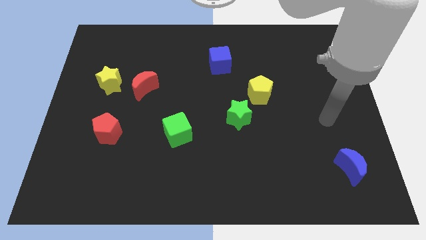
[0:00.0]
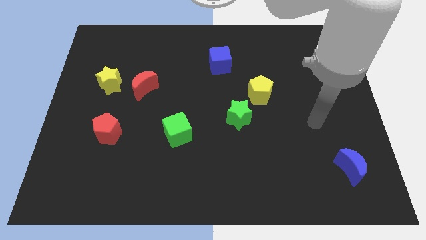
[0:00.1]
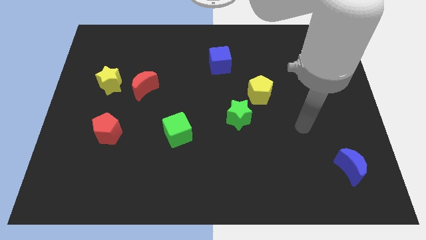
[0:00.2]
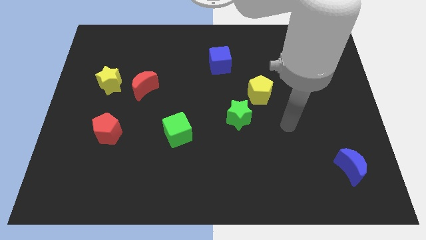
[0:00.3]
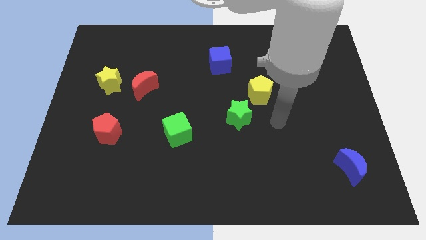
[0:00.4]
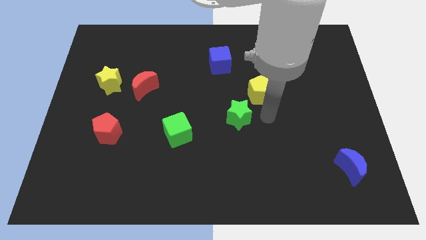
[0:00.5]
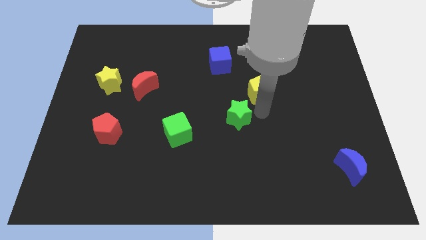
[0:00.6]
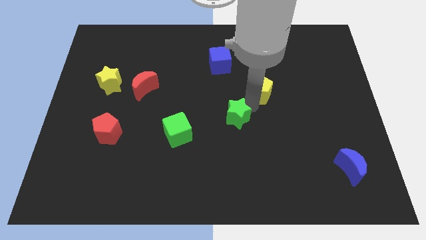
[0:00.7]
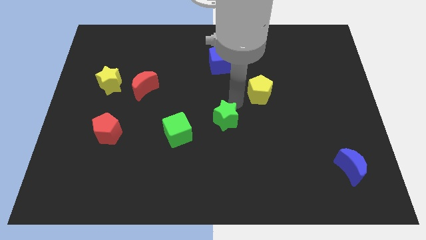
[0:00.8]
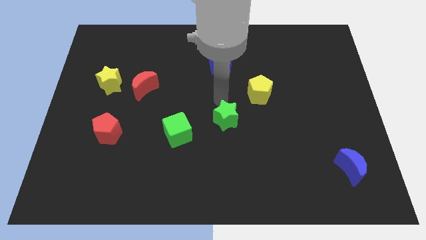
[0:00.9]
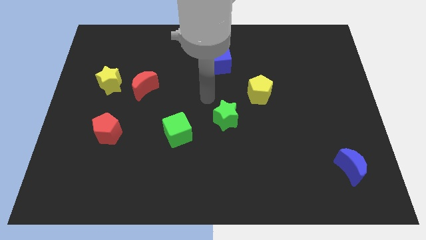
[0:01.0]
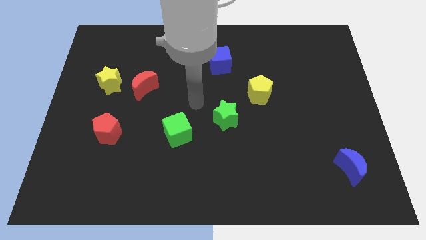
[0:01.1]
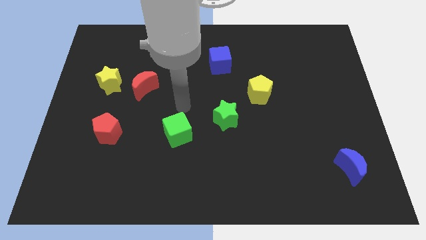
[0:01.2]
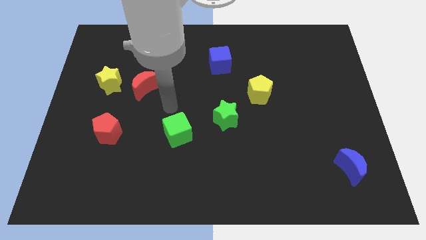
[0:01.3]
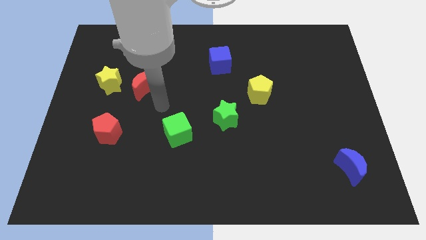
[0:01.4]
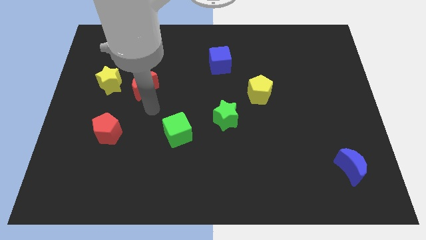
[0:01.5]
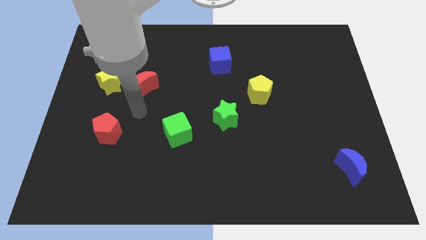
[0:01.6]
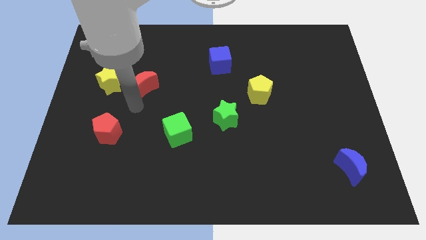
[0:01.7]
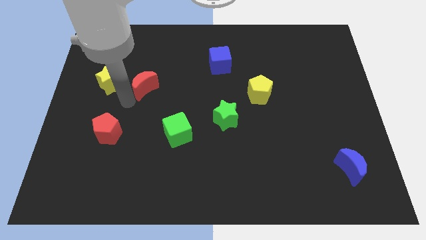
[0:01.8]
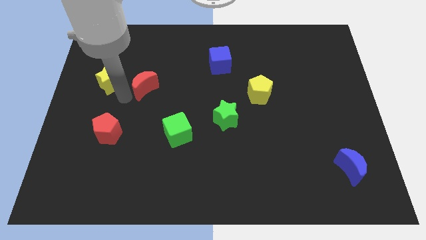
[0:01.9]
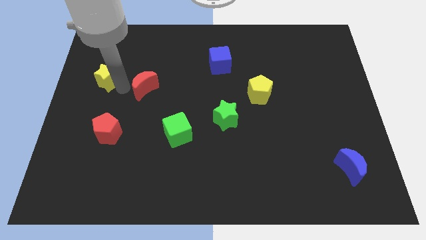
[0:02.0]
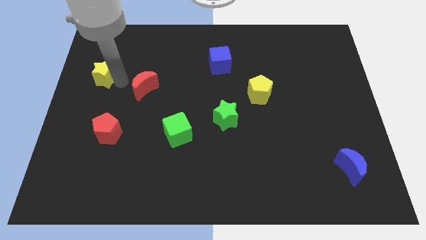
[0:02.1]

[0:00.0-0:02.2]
pull the red moon apart from the yellow star

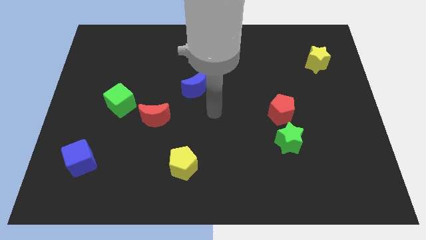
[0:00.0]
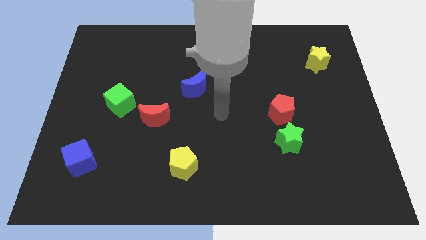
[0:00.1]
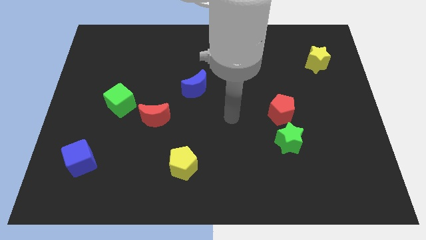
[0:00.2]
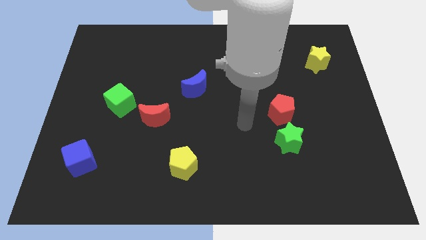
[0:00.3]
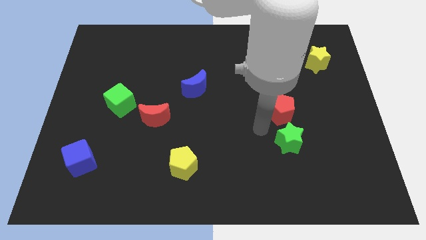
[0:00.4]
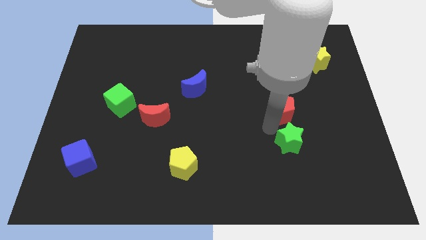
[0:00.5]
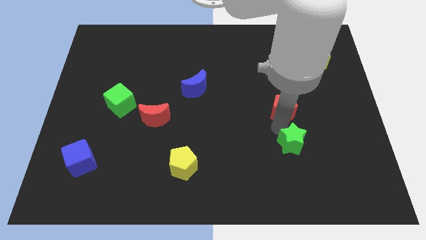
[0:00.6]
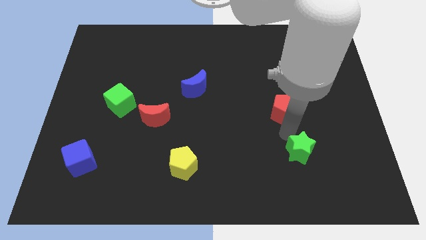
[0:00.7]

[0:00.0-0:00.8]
pull the red pentagon apart from the green star

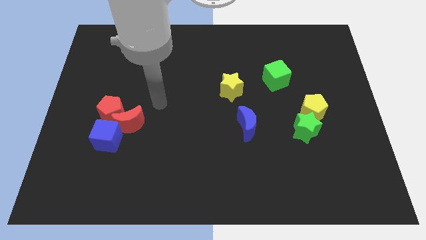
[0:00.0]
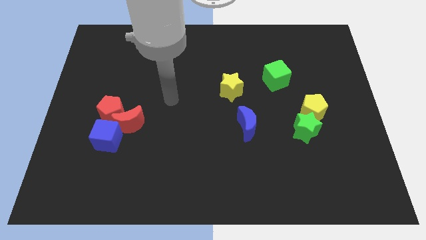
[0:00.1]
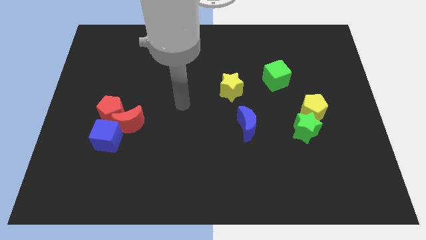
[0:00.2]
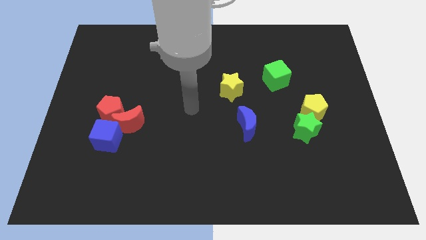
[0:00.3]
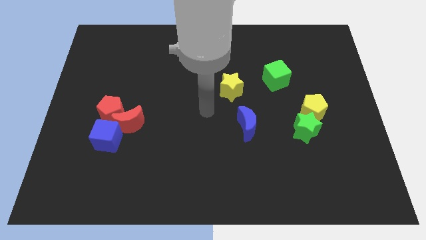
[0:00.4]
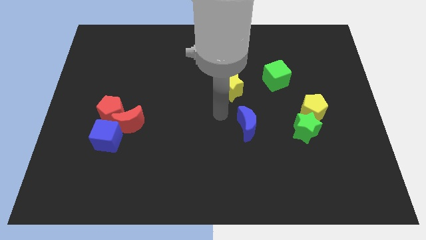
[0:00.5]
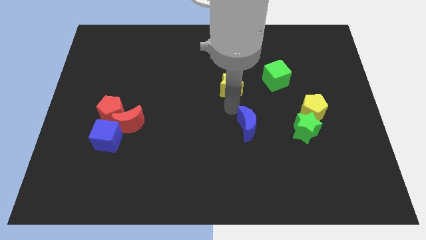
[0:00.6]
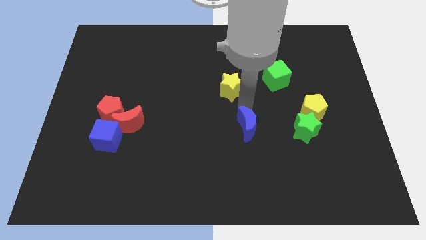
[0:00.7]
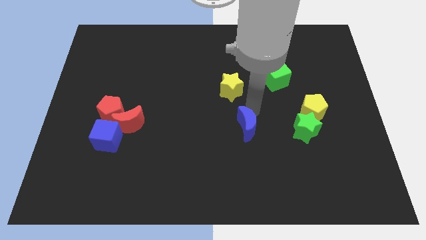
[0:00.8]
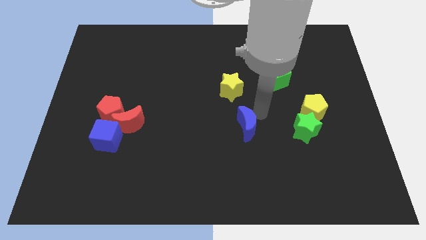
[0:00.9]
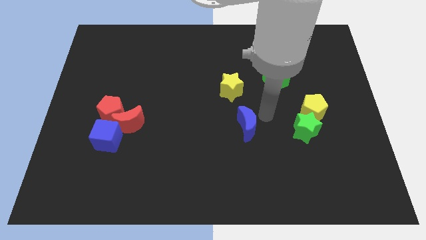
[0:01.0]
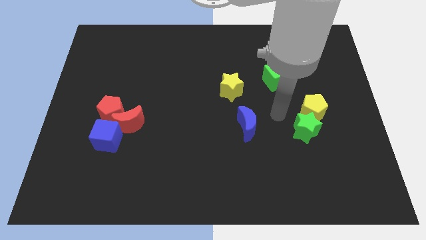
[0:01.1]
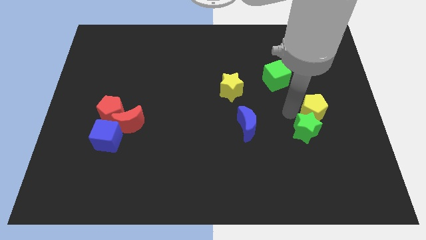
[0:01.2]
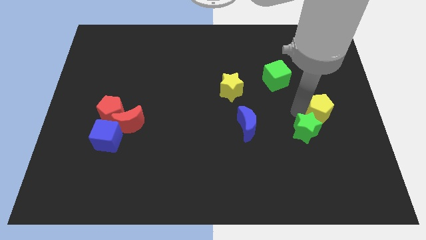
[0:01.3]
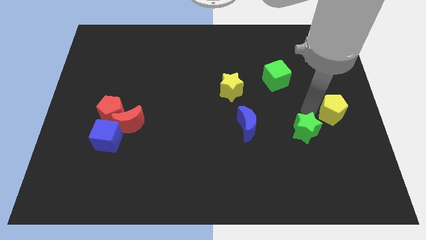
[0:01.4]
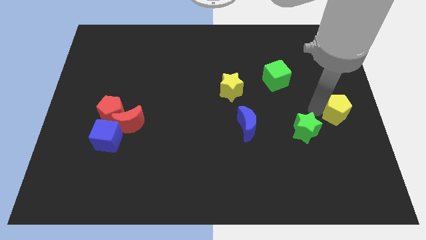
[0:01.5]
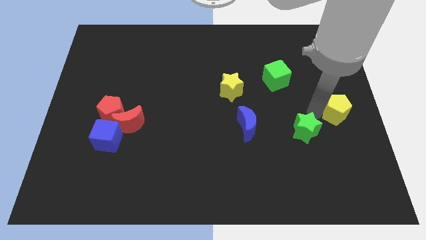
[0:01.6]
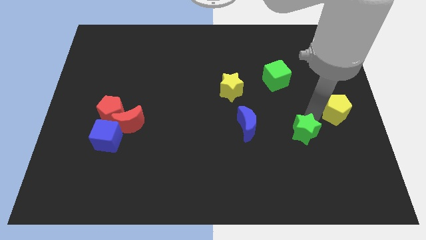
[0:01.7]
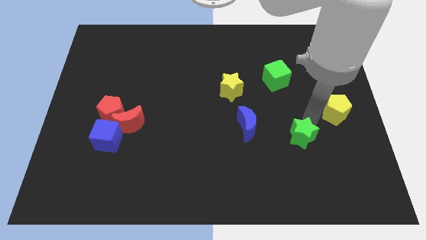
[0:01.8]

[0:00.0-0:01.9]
move the green star away from the yellow pentagon

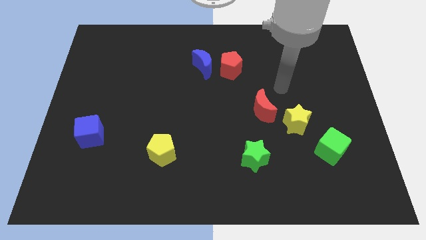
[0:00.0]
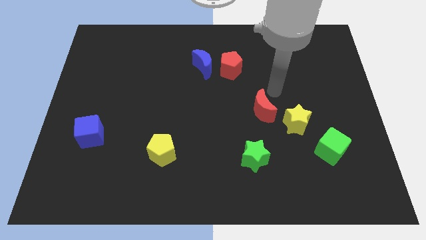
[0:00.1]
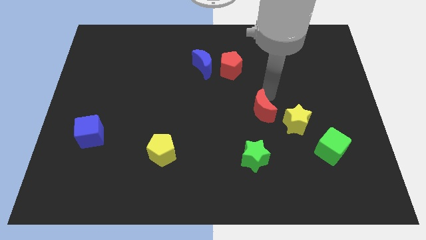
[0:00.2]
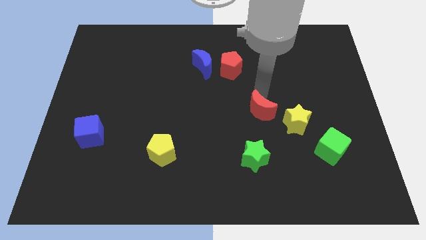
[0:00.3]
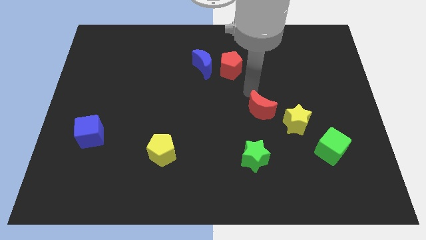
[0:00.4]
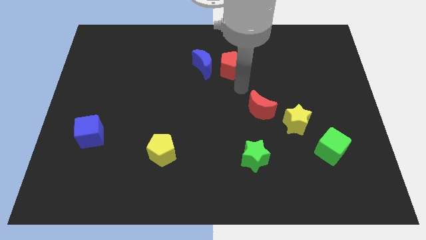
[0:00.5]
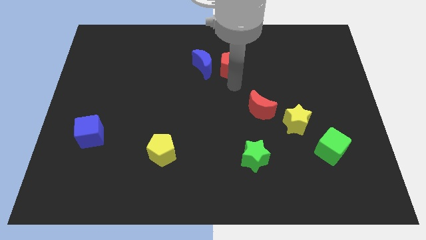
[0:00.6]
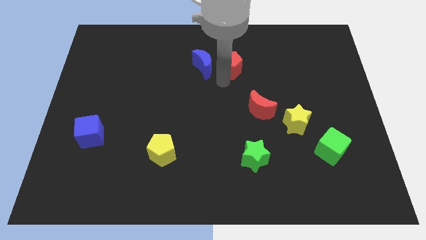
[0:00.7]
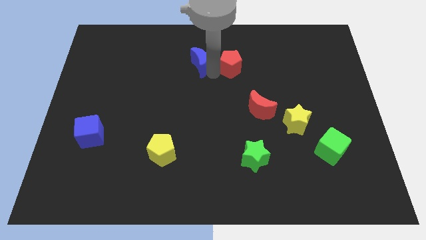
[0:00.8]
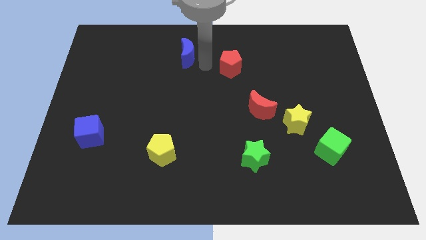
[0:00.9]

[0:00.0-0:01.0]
move the red pentagon away from the blue moon

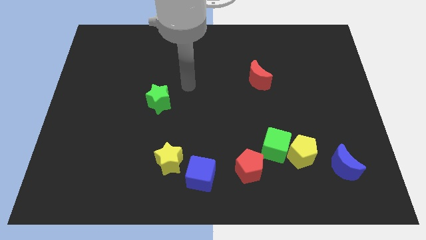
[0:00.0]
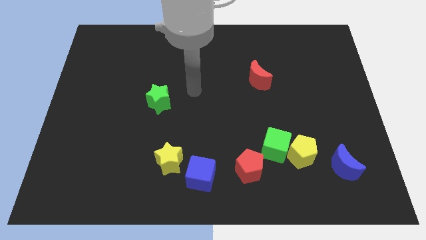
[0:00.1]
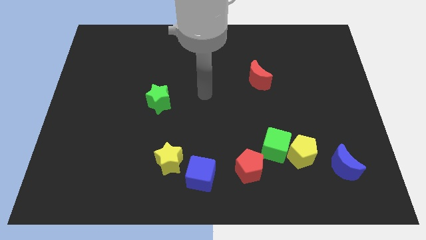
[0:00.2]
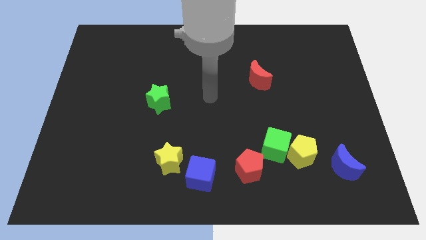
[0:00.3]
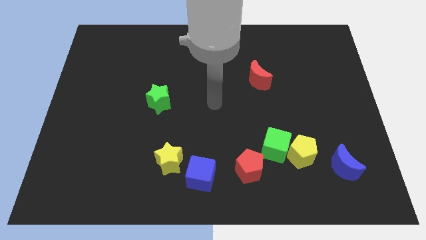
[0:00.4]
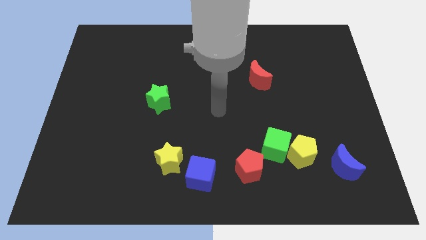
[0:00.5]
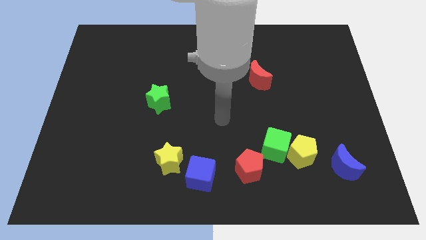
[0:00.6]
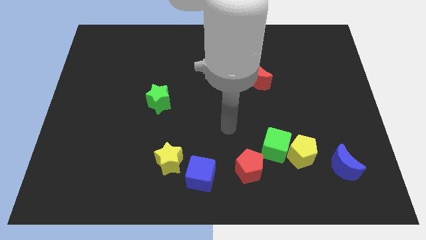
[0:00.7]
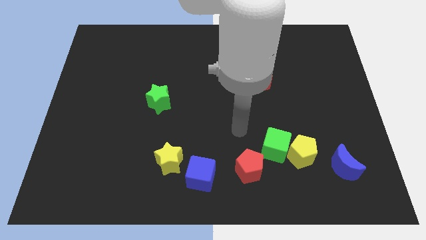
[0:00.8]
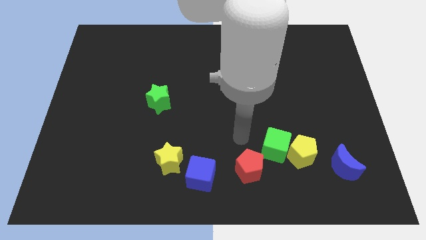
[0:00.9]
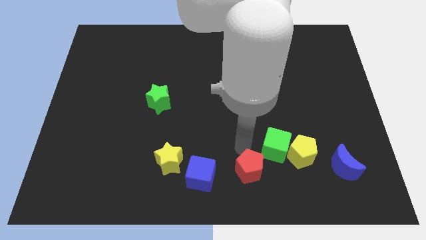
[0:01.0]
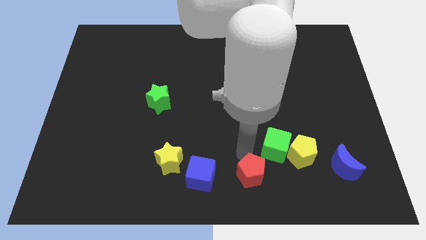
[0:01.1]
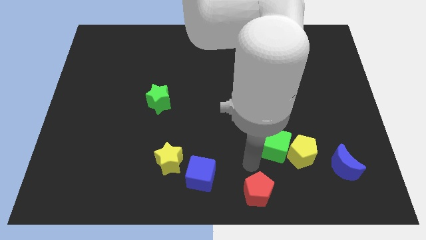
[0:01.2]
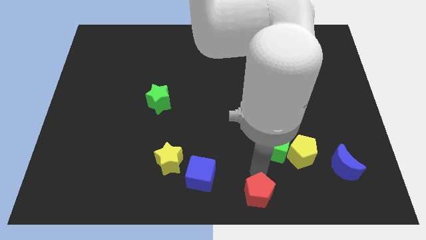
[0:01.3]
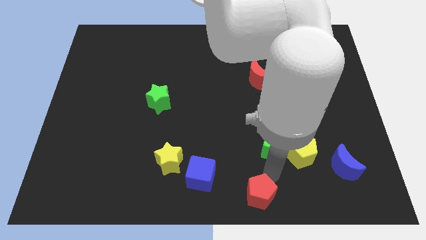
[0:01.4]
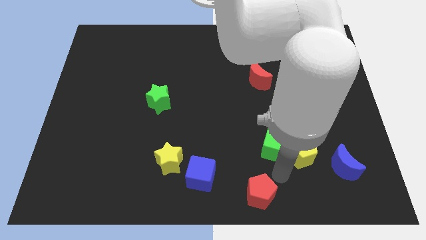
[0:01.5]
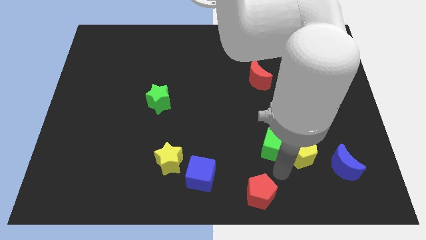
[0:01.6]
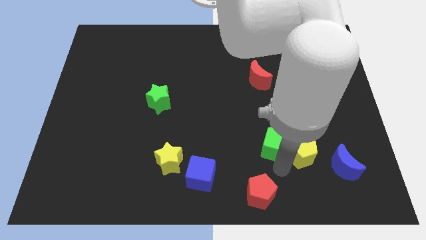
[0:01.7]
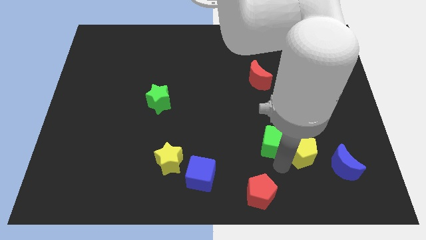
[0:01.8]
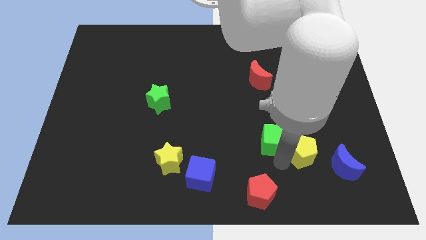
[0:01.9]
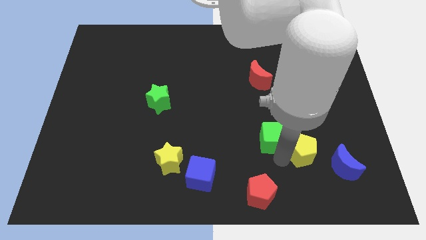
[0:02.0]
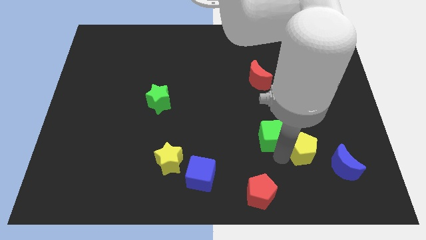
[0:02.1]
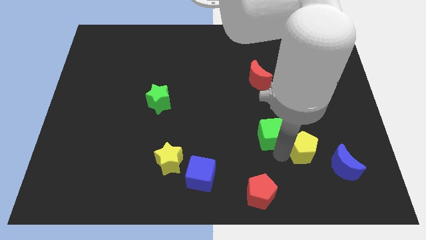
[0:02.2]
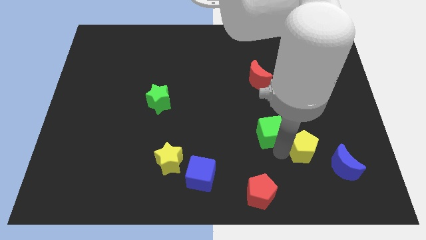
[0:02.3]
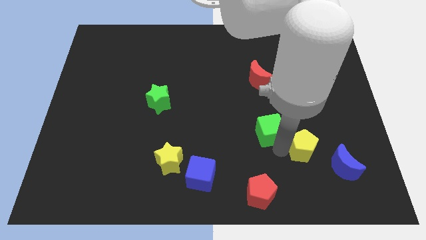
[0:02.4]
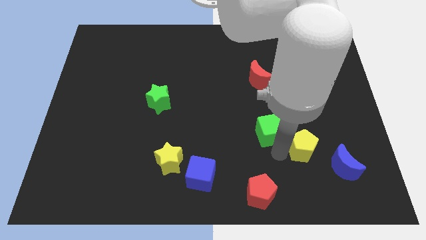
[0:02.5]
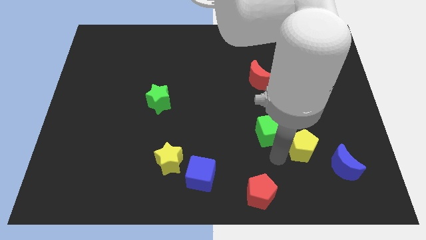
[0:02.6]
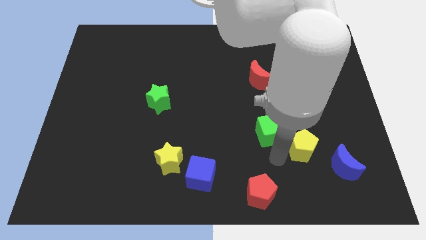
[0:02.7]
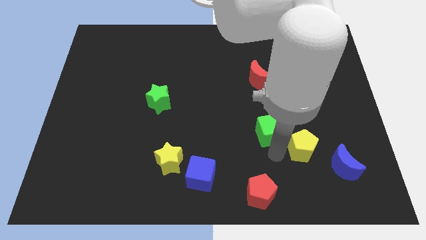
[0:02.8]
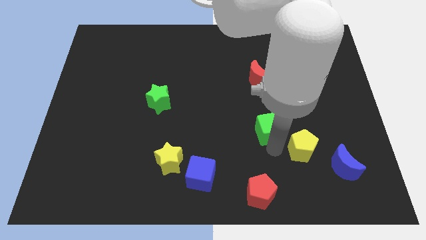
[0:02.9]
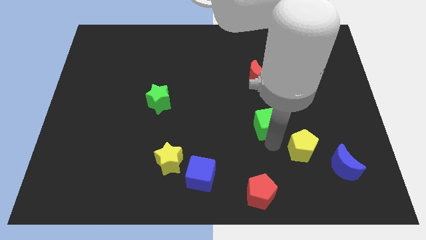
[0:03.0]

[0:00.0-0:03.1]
move the green cube away from the yellow pentagon and red pentagon

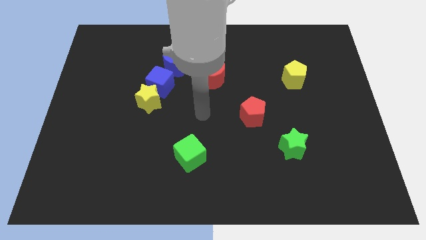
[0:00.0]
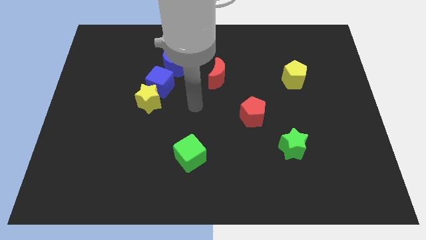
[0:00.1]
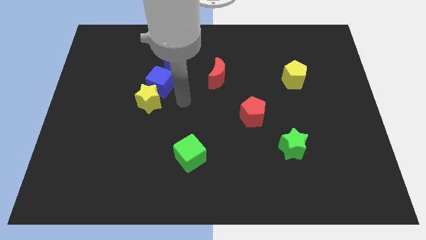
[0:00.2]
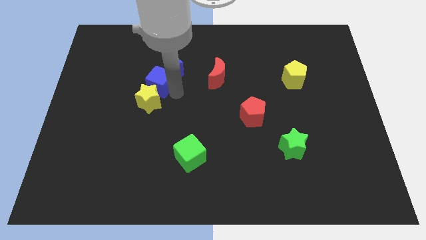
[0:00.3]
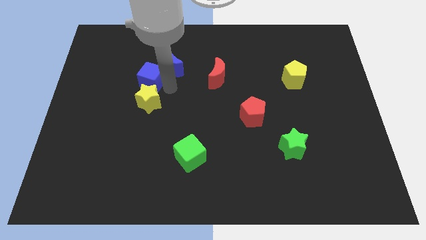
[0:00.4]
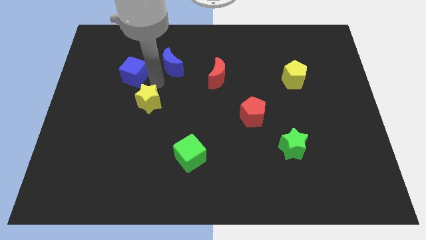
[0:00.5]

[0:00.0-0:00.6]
pull the yellow star apart from the blue cube
